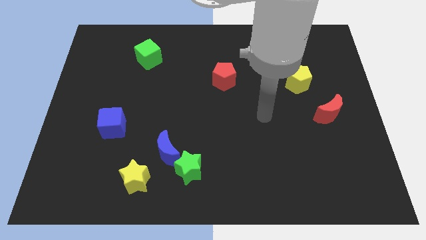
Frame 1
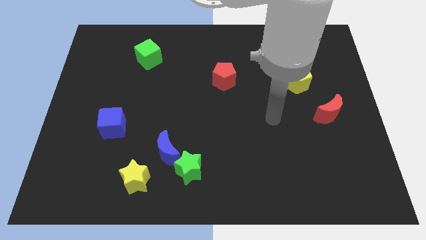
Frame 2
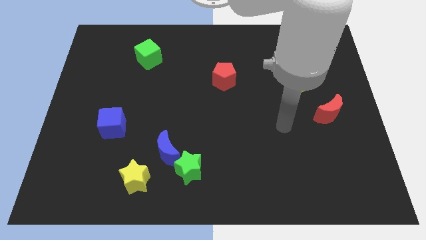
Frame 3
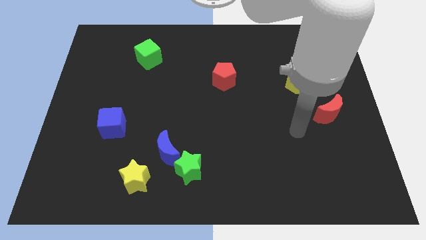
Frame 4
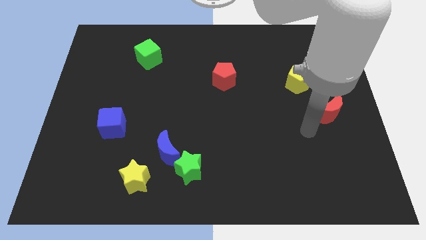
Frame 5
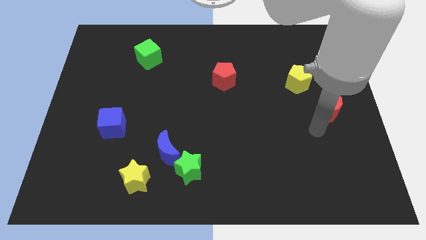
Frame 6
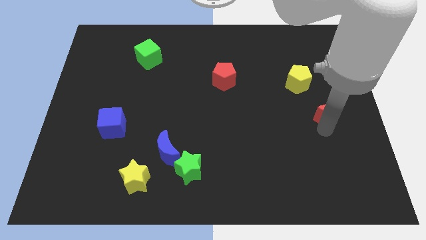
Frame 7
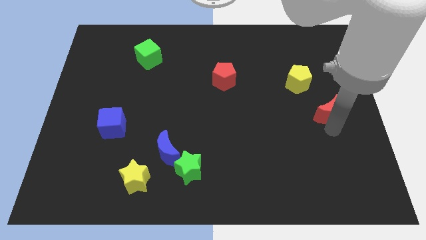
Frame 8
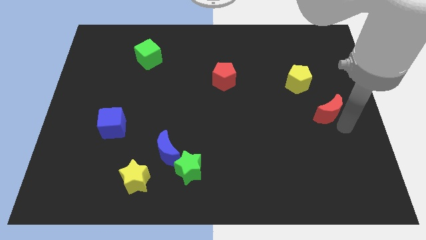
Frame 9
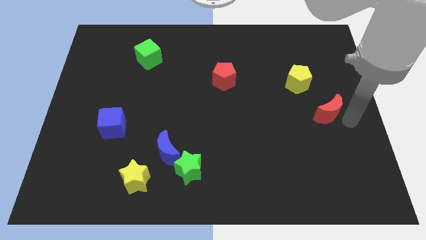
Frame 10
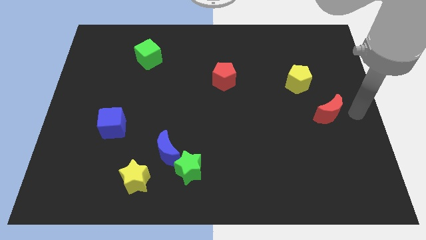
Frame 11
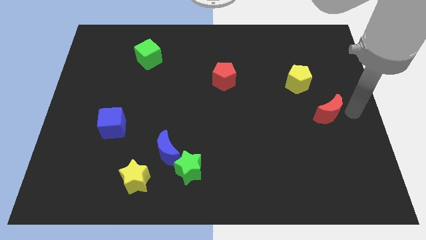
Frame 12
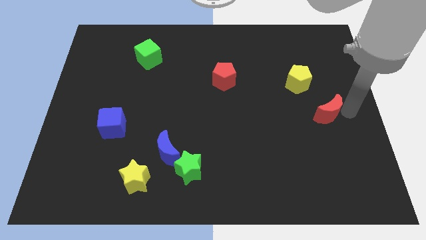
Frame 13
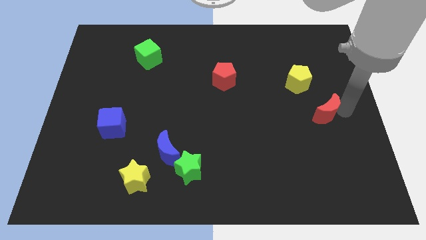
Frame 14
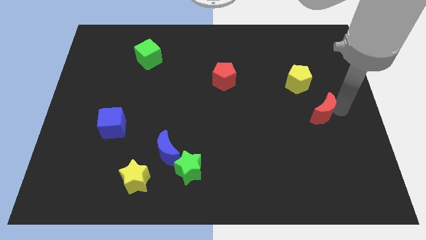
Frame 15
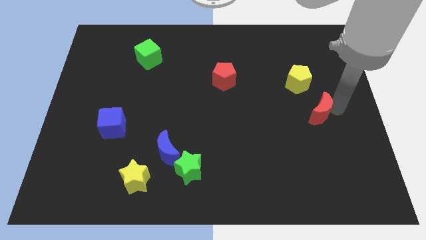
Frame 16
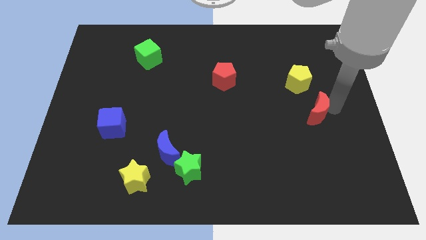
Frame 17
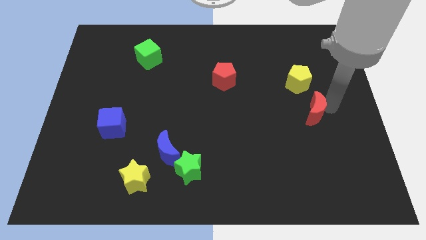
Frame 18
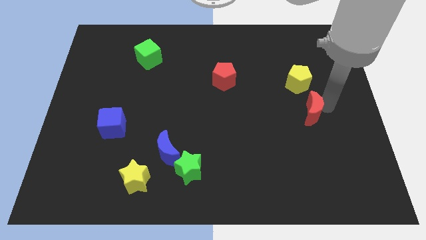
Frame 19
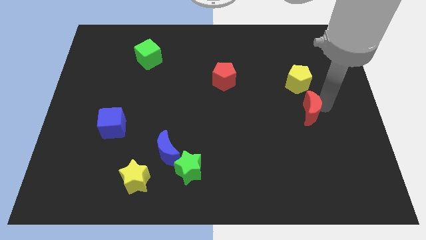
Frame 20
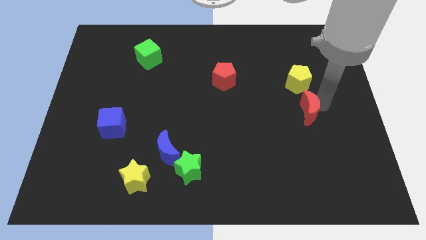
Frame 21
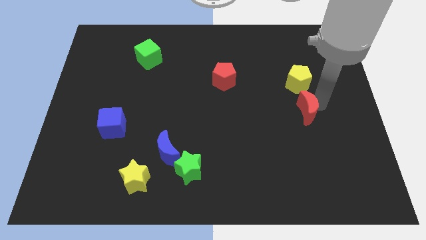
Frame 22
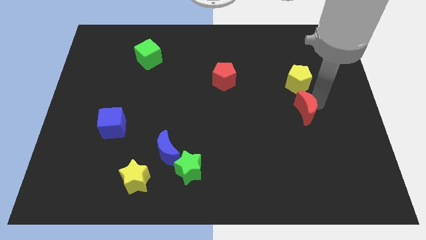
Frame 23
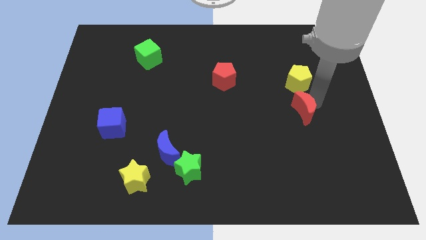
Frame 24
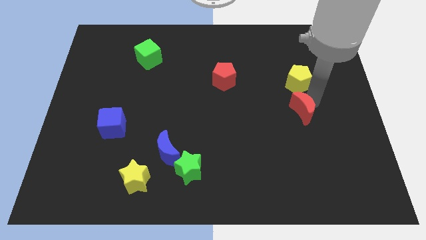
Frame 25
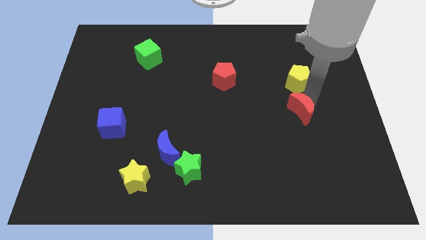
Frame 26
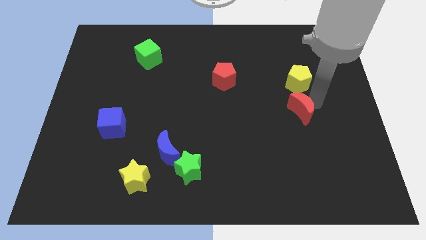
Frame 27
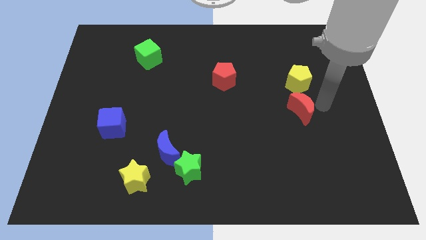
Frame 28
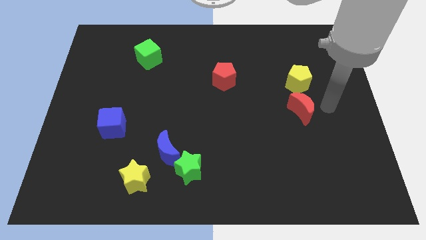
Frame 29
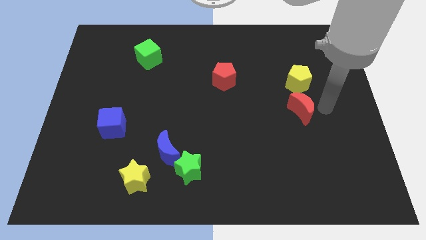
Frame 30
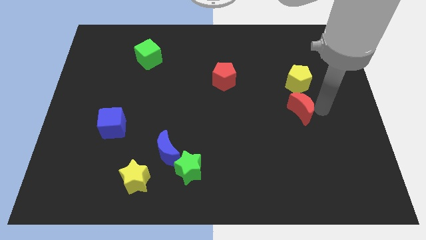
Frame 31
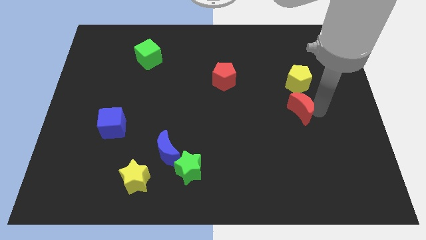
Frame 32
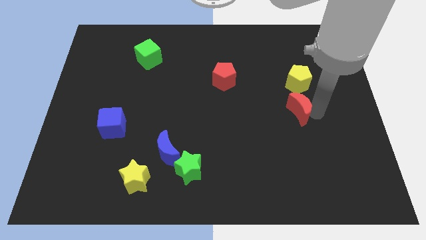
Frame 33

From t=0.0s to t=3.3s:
slide the red moon left a little

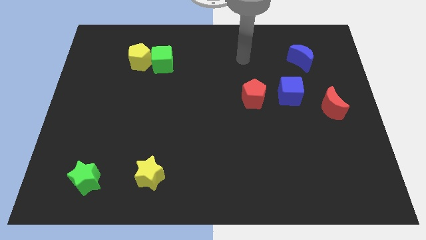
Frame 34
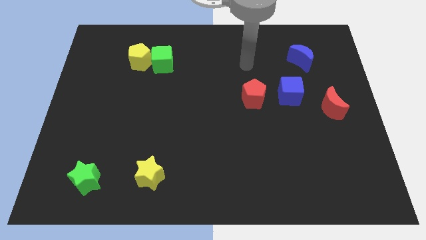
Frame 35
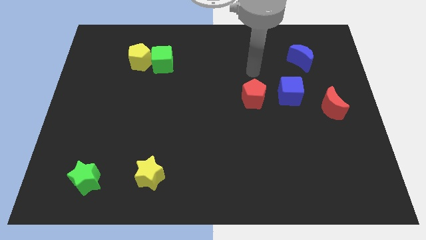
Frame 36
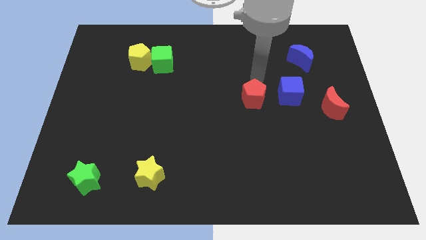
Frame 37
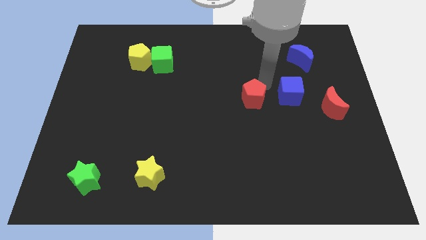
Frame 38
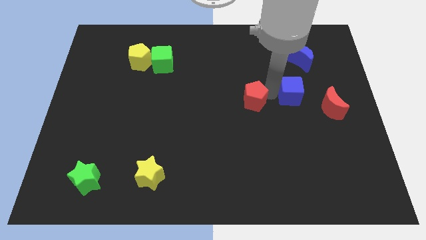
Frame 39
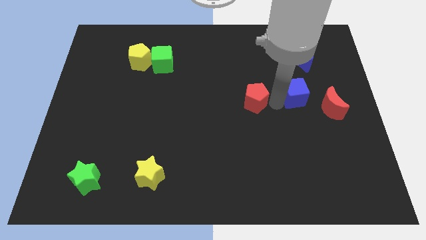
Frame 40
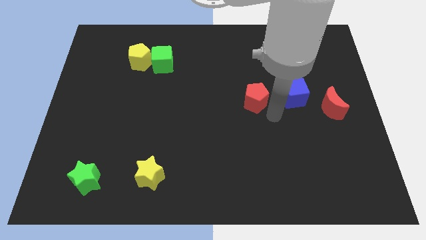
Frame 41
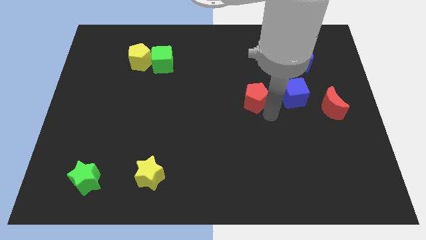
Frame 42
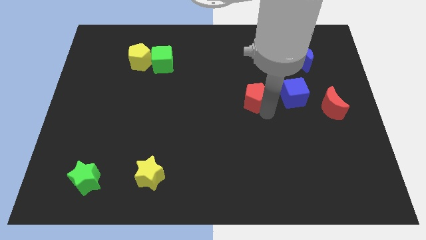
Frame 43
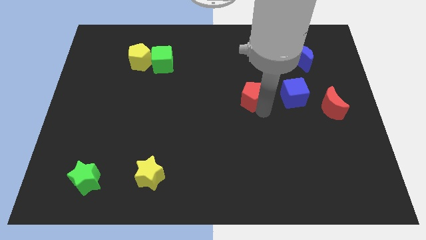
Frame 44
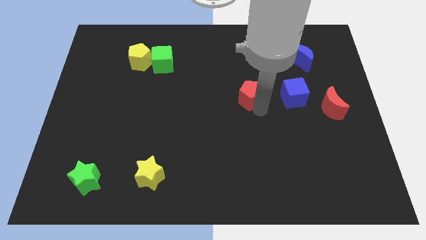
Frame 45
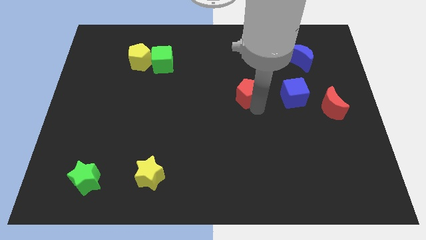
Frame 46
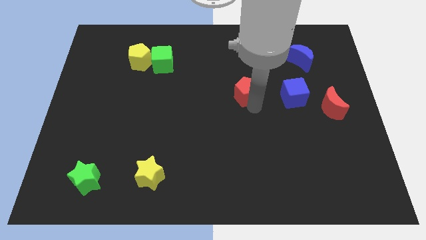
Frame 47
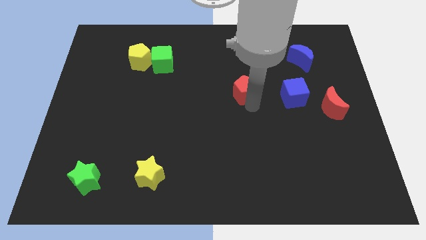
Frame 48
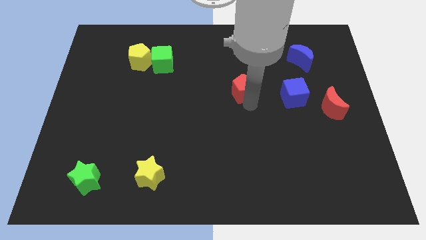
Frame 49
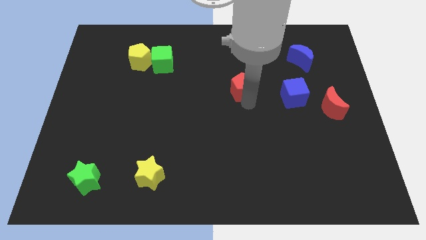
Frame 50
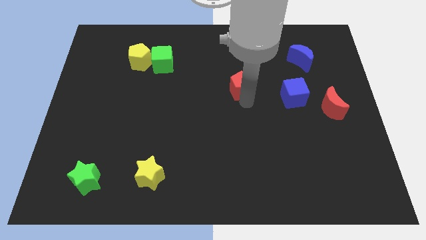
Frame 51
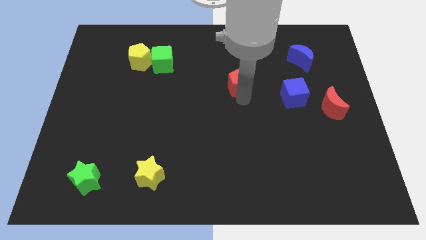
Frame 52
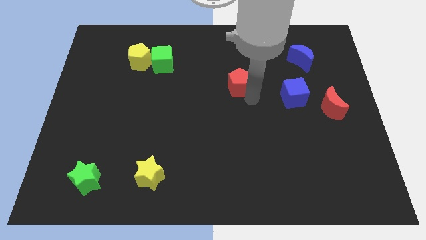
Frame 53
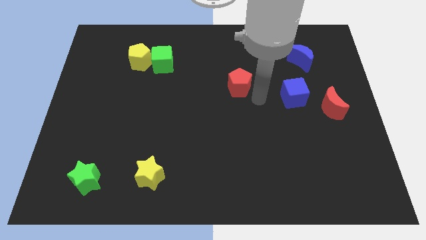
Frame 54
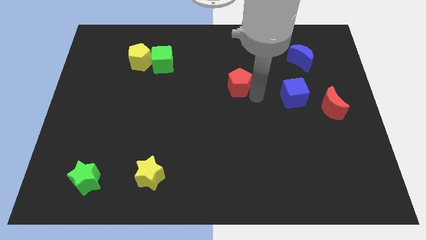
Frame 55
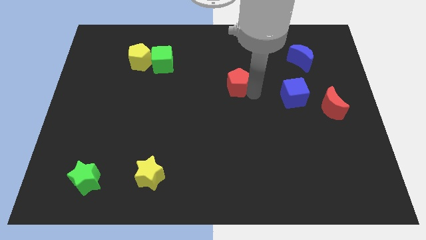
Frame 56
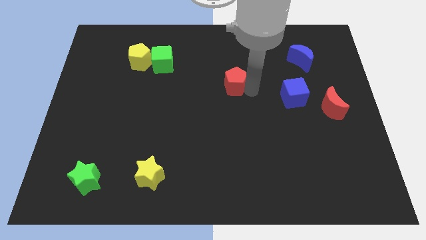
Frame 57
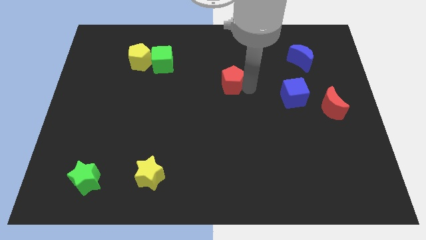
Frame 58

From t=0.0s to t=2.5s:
slide the red pentagon up and left diagonally a little bit

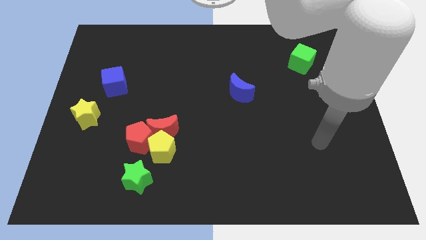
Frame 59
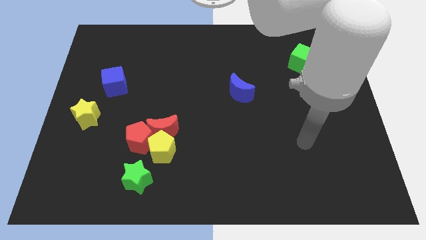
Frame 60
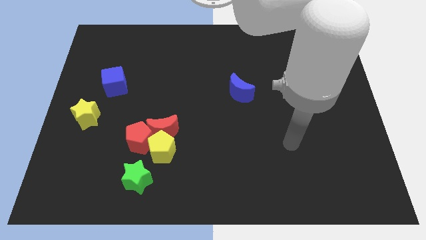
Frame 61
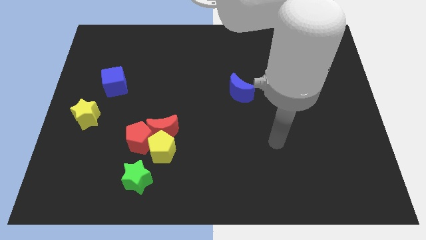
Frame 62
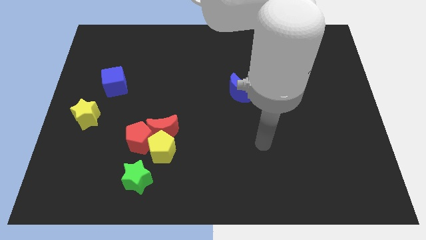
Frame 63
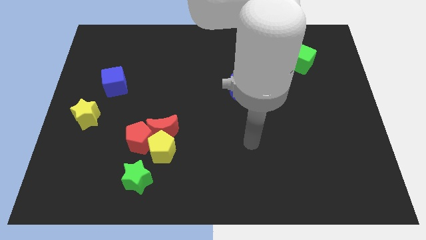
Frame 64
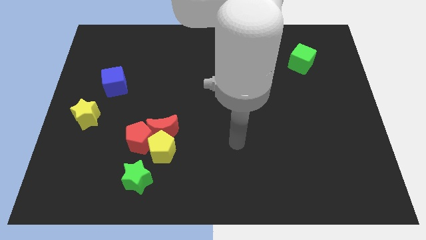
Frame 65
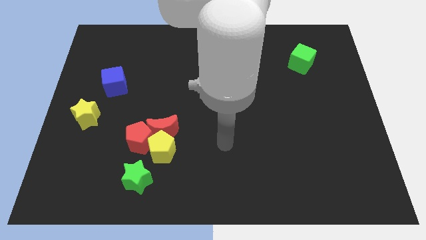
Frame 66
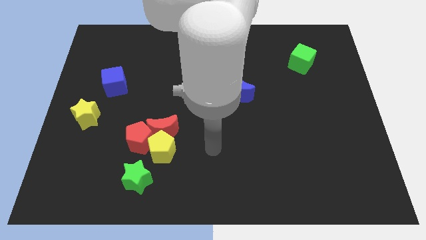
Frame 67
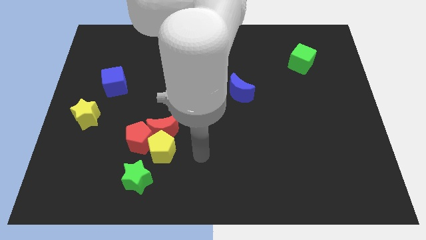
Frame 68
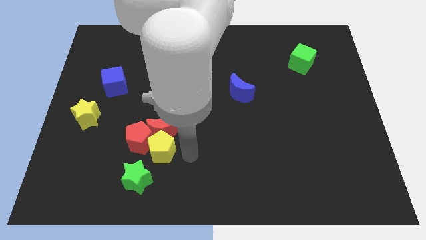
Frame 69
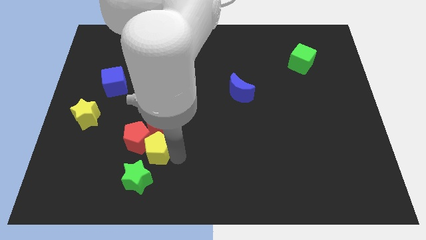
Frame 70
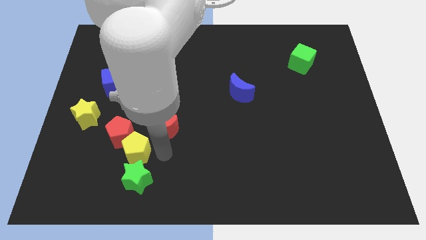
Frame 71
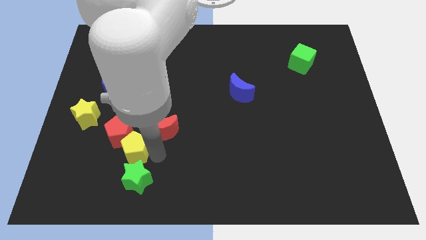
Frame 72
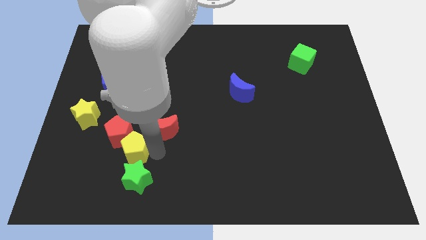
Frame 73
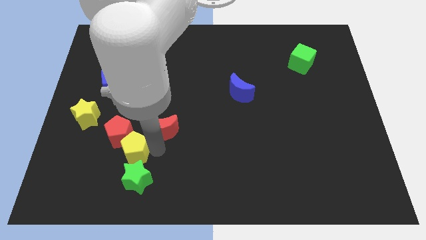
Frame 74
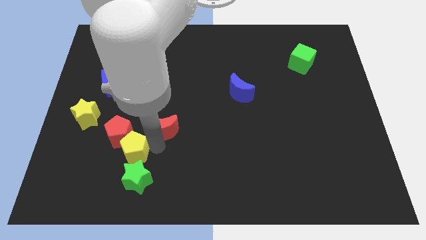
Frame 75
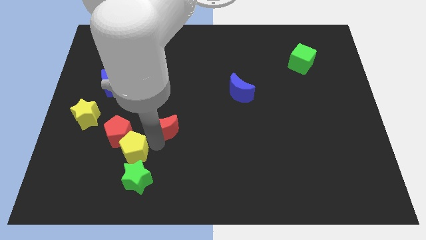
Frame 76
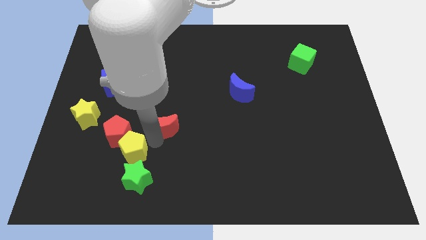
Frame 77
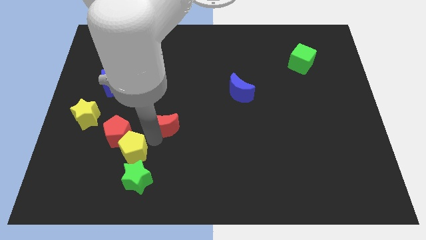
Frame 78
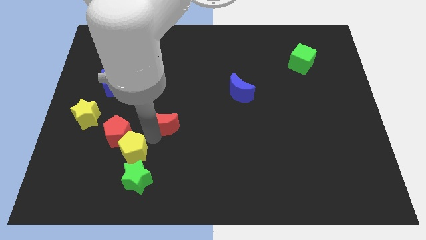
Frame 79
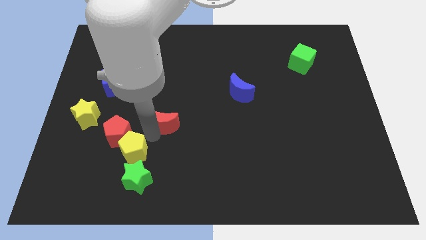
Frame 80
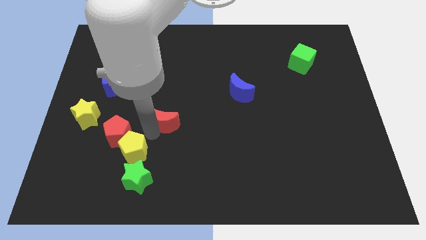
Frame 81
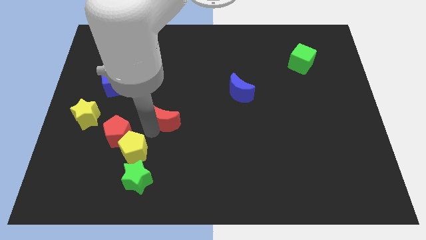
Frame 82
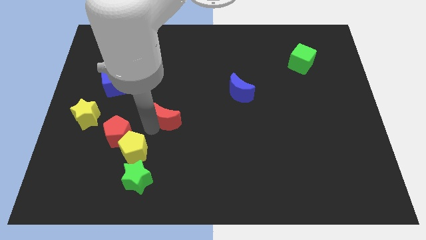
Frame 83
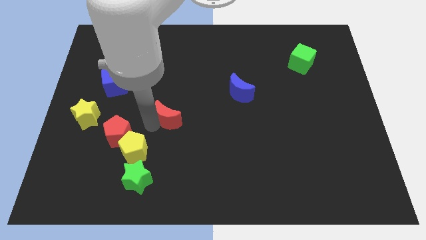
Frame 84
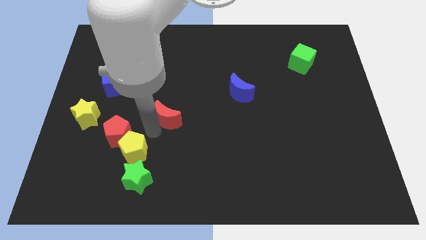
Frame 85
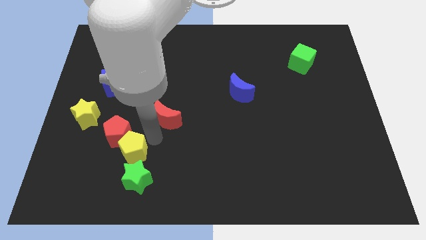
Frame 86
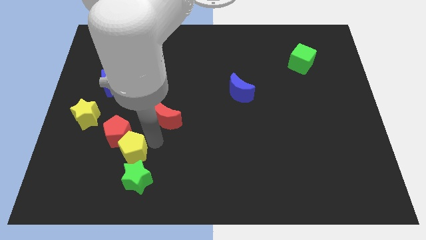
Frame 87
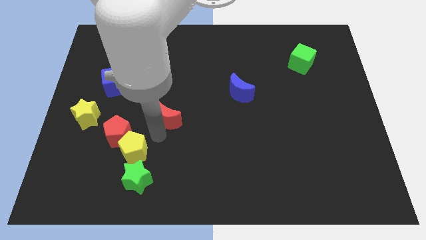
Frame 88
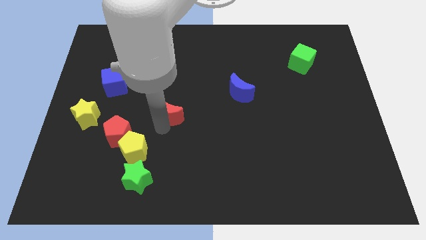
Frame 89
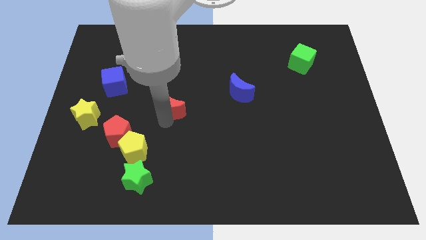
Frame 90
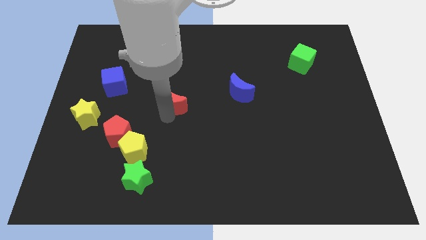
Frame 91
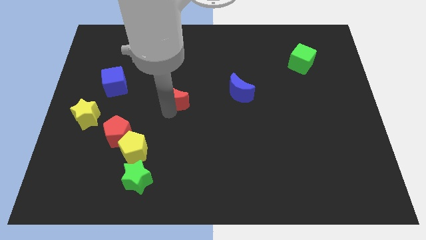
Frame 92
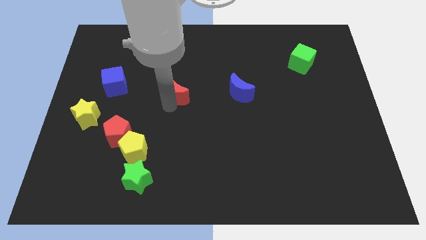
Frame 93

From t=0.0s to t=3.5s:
slightly slide the red moon upwards and to the right
